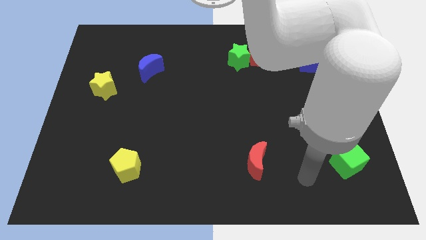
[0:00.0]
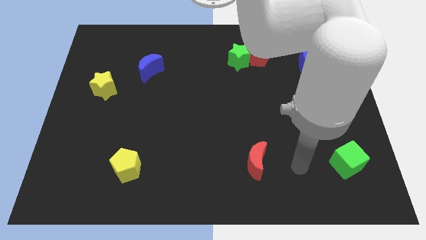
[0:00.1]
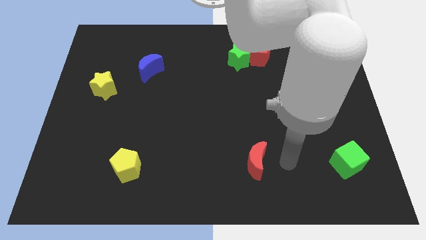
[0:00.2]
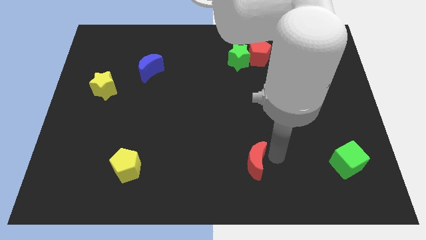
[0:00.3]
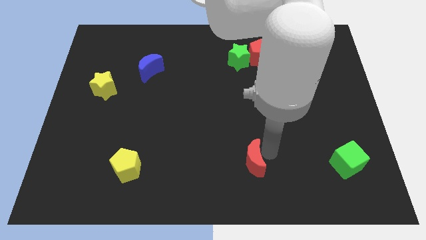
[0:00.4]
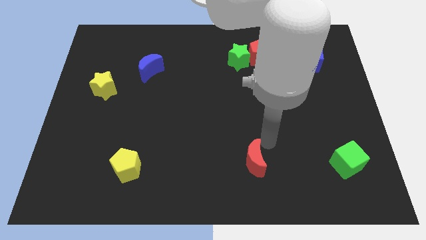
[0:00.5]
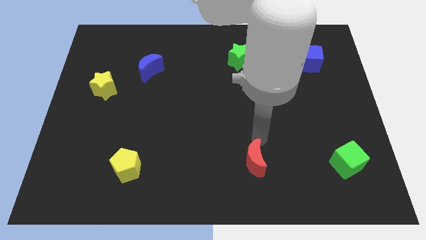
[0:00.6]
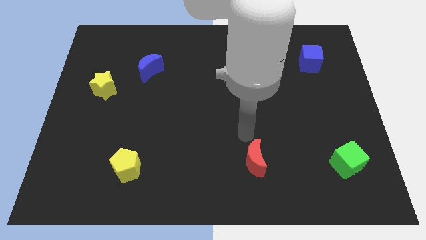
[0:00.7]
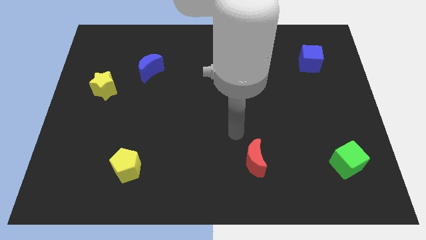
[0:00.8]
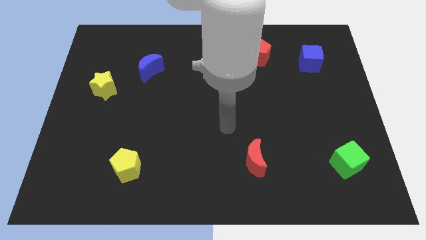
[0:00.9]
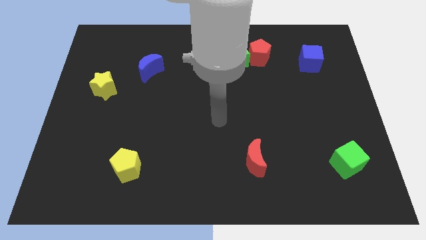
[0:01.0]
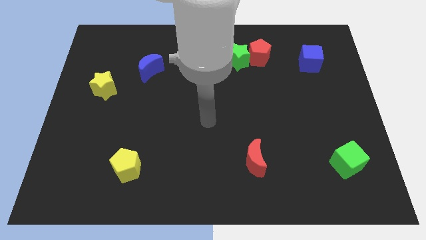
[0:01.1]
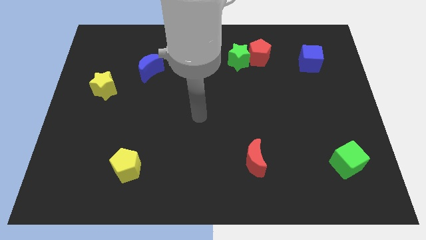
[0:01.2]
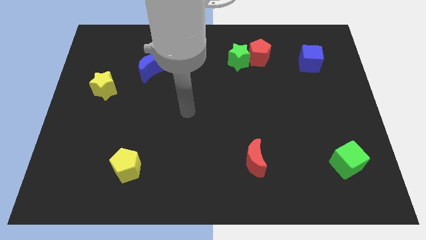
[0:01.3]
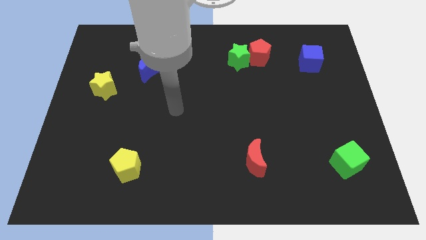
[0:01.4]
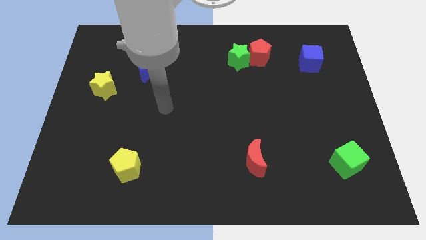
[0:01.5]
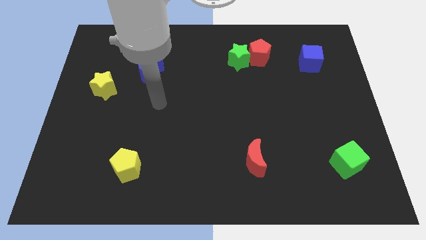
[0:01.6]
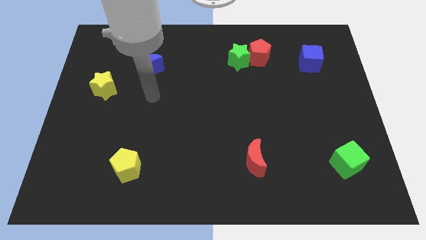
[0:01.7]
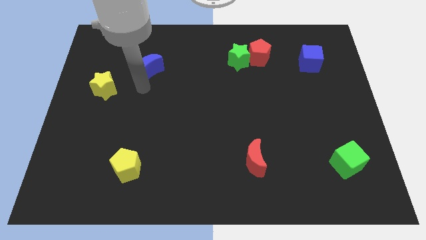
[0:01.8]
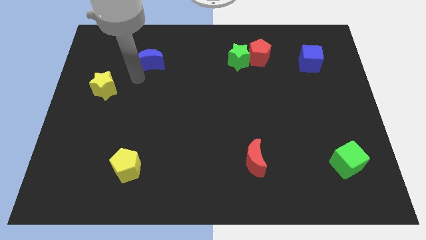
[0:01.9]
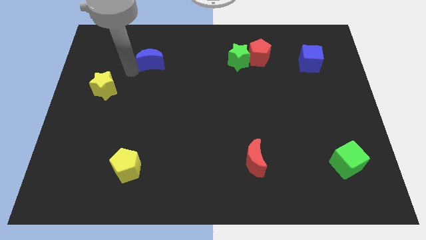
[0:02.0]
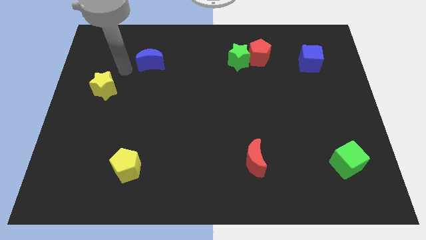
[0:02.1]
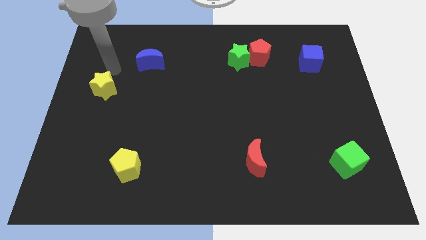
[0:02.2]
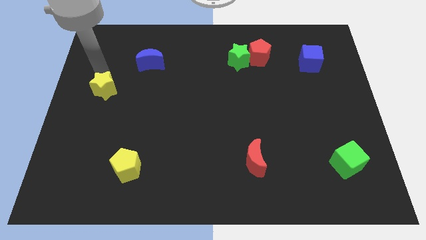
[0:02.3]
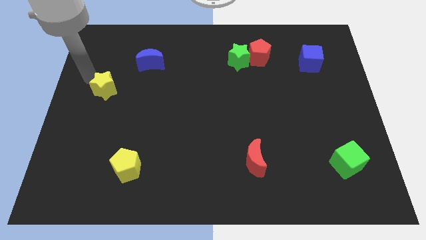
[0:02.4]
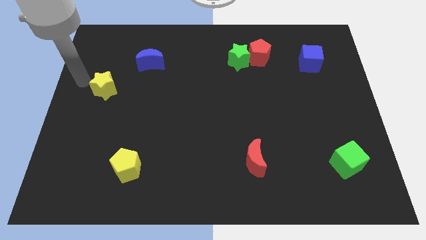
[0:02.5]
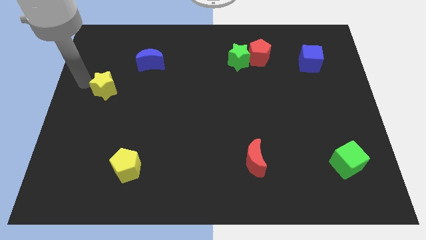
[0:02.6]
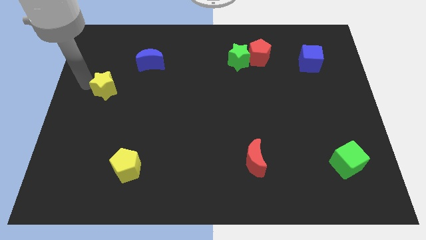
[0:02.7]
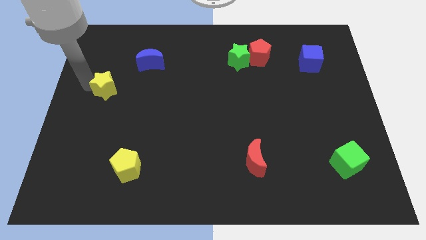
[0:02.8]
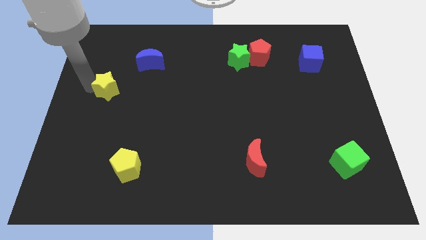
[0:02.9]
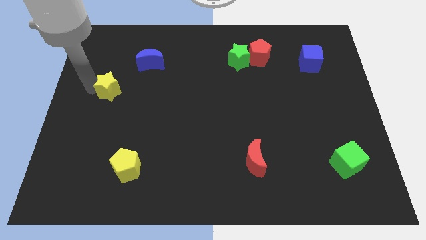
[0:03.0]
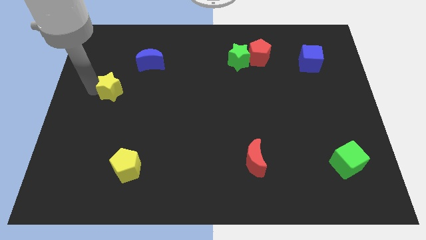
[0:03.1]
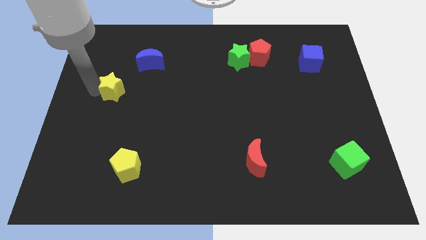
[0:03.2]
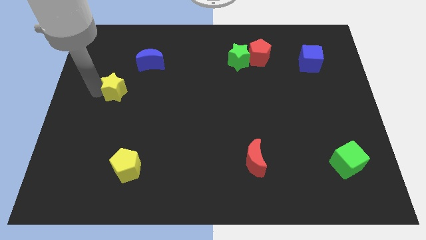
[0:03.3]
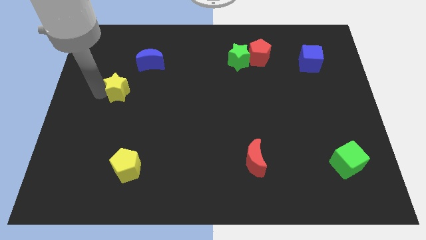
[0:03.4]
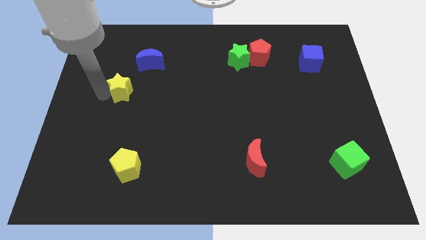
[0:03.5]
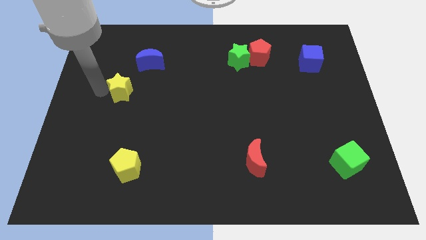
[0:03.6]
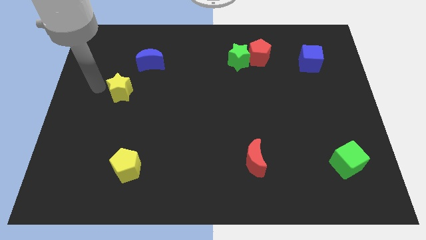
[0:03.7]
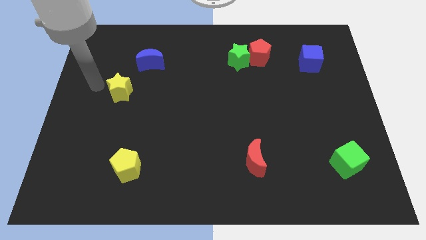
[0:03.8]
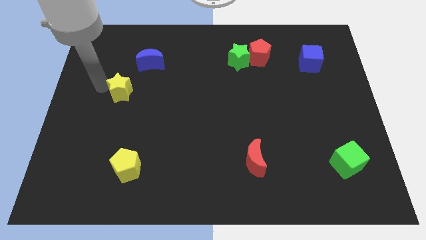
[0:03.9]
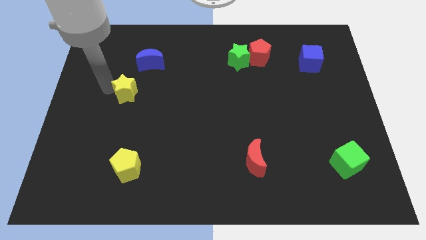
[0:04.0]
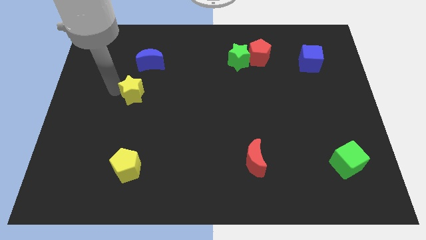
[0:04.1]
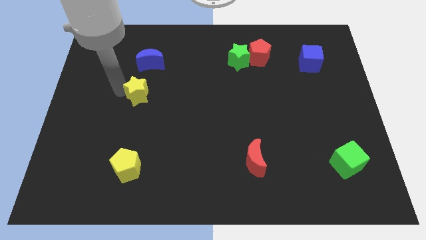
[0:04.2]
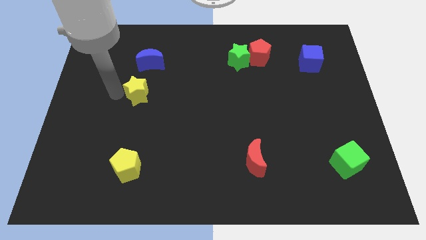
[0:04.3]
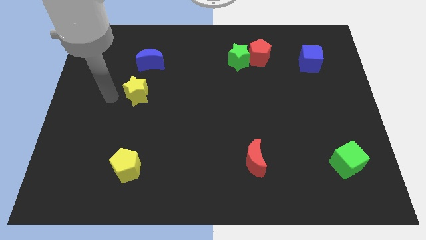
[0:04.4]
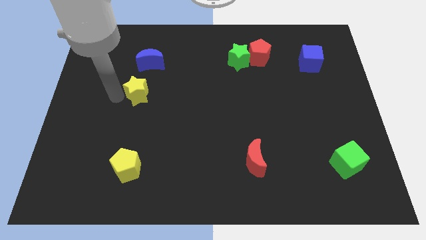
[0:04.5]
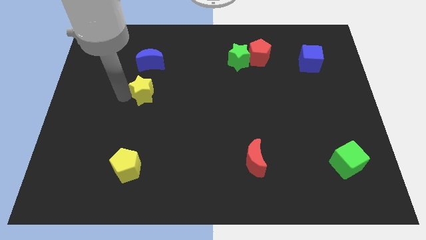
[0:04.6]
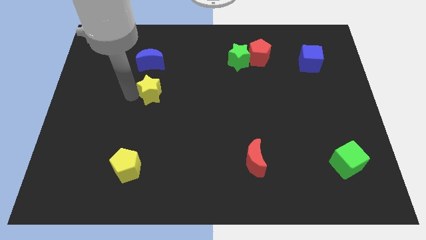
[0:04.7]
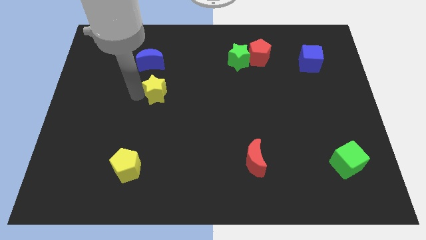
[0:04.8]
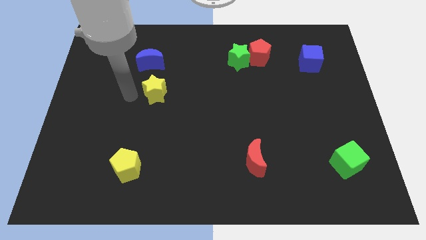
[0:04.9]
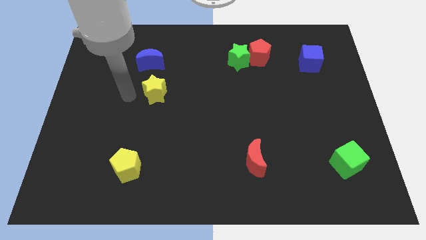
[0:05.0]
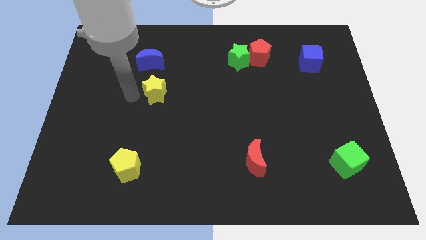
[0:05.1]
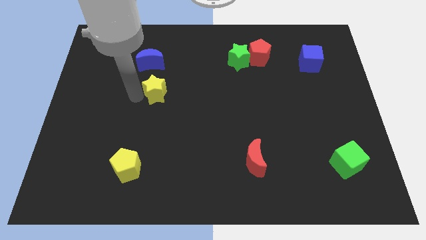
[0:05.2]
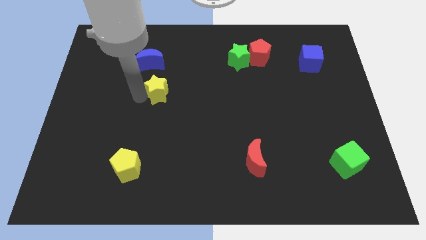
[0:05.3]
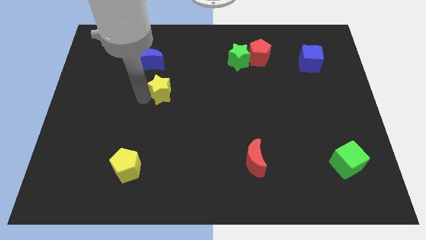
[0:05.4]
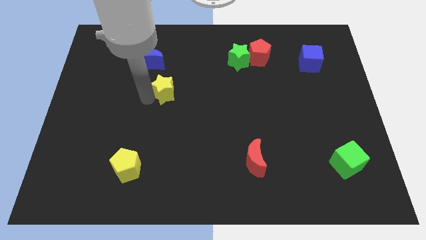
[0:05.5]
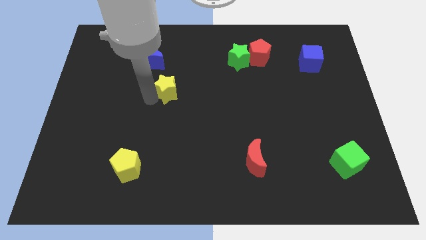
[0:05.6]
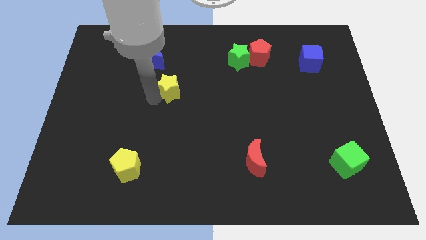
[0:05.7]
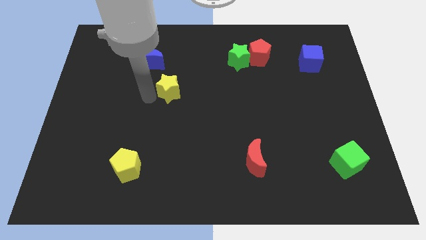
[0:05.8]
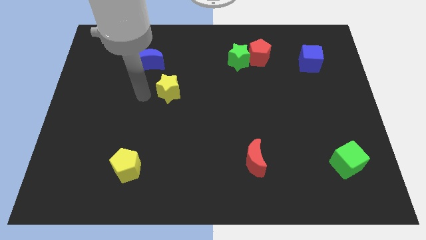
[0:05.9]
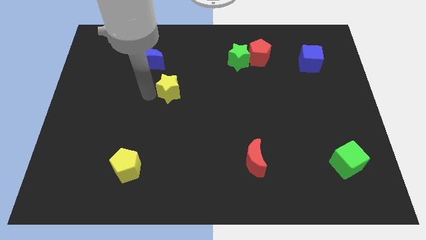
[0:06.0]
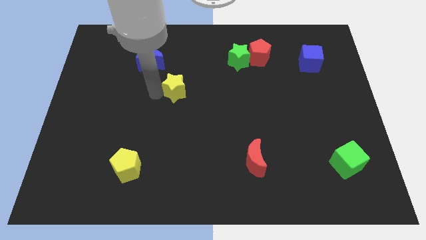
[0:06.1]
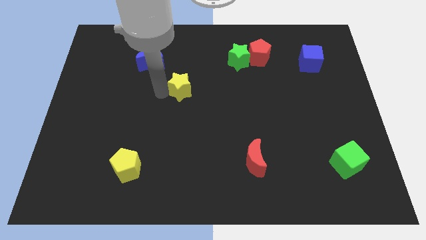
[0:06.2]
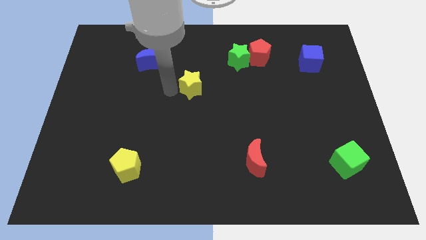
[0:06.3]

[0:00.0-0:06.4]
slide the yellow star right

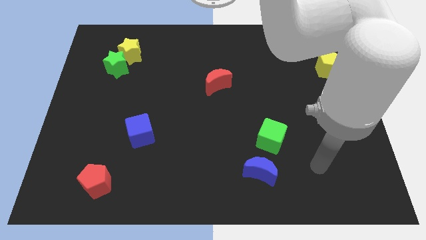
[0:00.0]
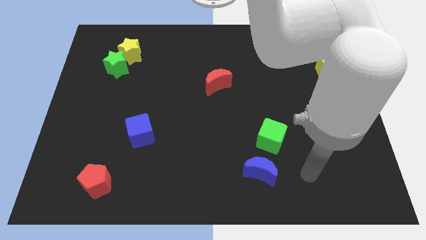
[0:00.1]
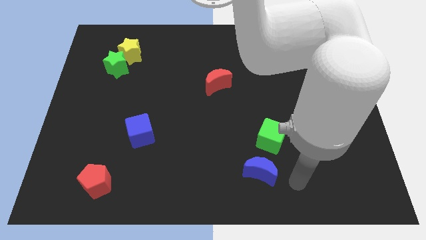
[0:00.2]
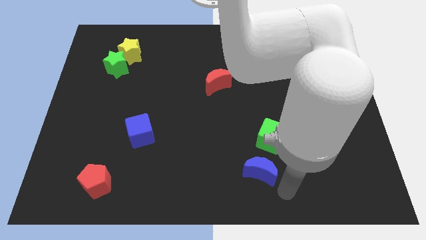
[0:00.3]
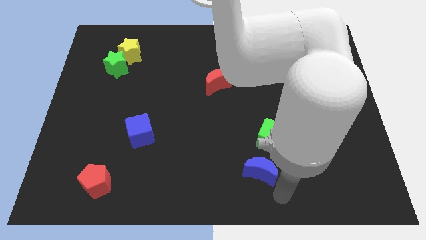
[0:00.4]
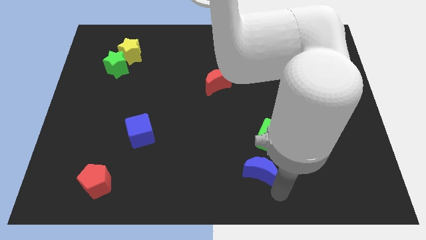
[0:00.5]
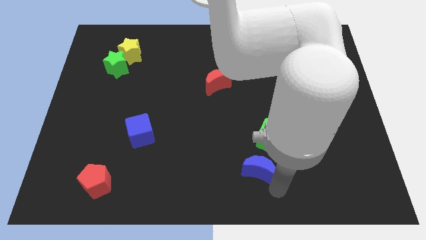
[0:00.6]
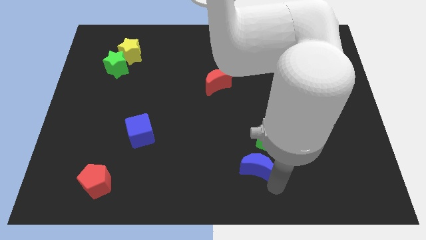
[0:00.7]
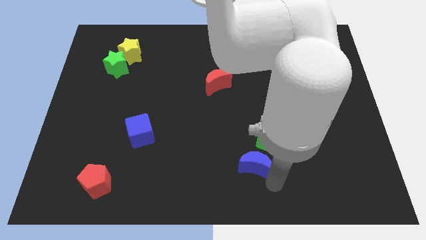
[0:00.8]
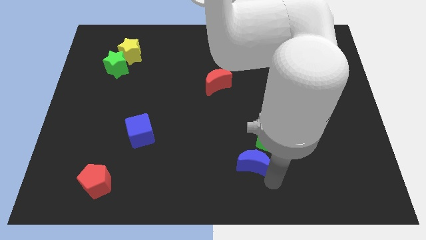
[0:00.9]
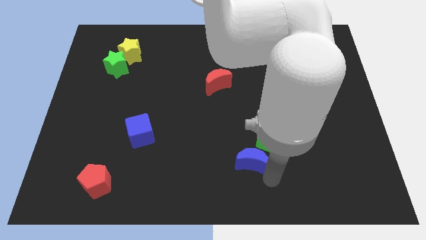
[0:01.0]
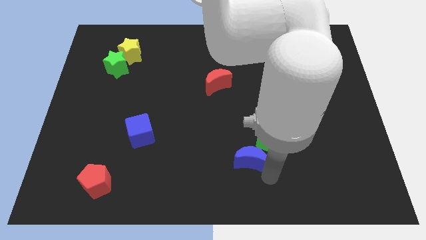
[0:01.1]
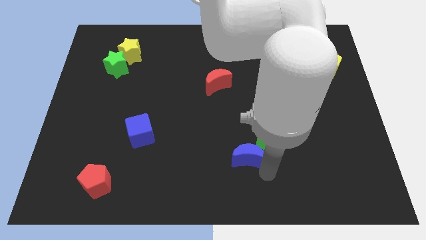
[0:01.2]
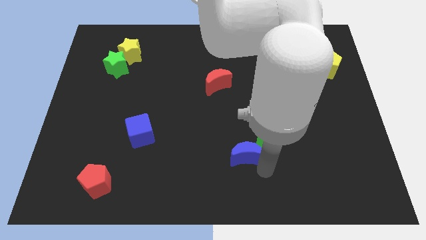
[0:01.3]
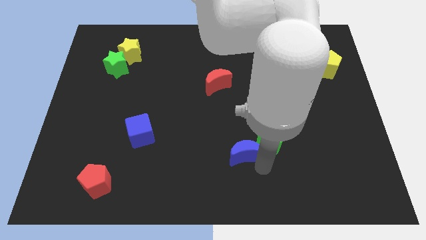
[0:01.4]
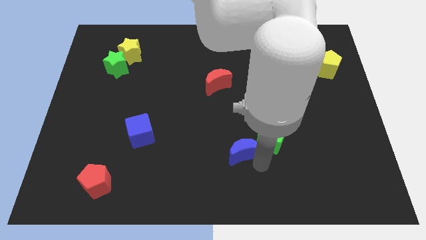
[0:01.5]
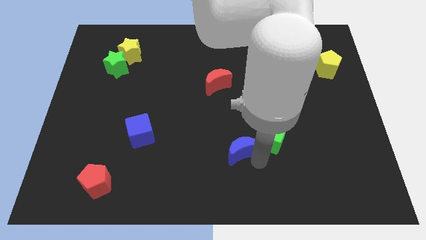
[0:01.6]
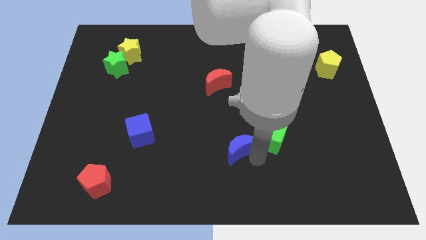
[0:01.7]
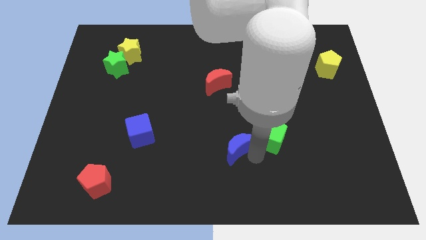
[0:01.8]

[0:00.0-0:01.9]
slide the blue moon a bit up and to the left diagonally
